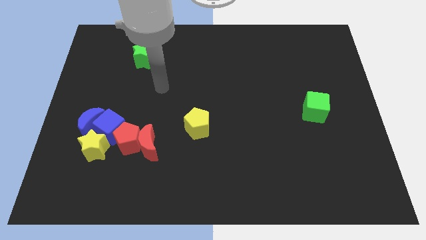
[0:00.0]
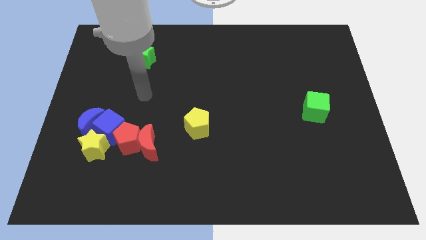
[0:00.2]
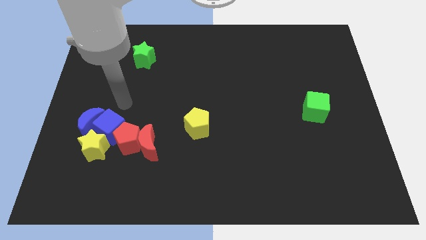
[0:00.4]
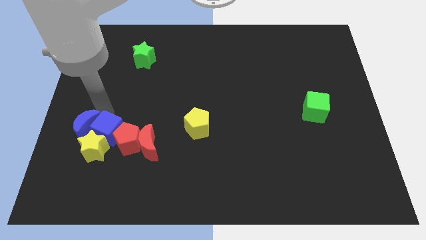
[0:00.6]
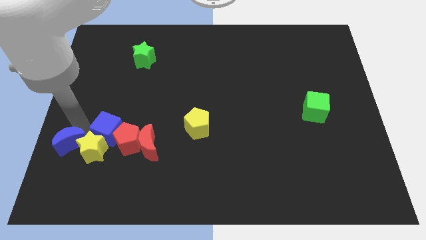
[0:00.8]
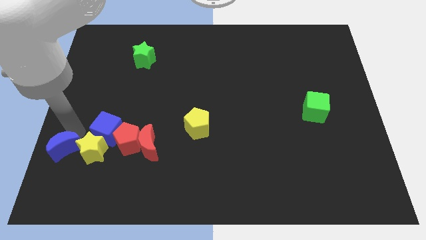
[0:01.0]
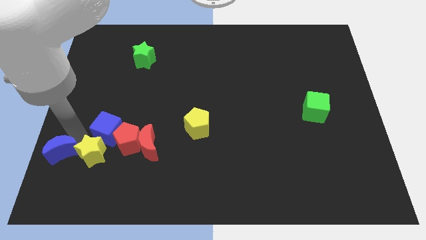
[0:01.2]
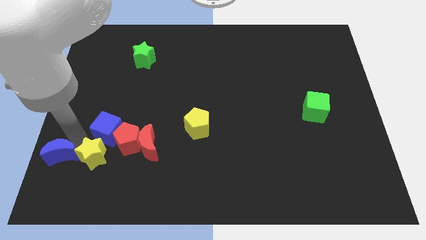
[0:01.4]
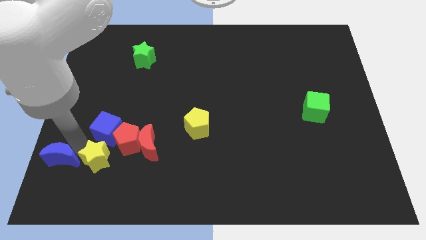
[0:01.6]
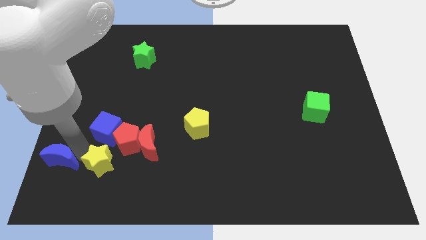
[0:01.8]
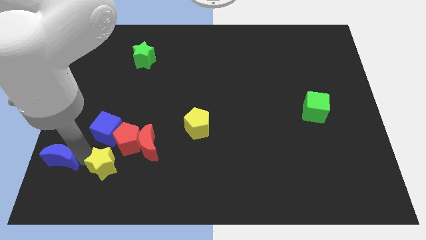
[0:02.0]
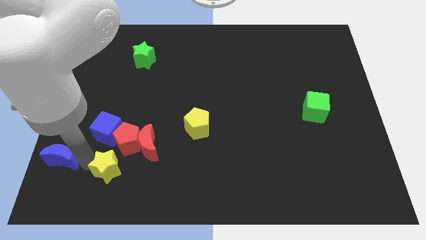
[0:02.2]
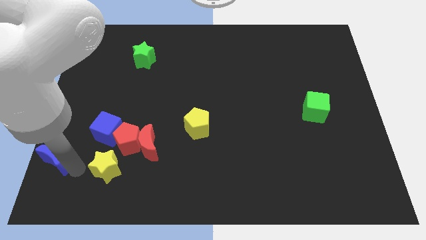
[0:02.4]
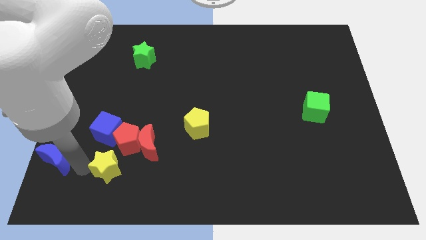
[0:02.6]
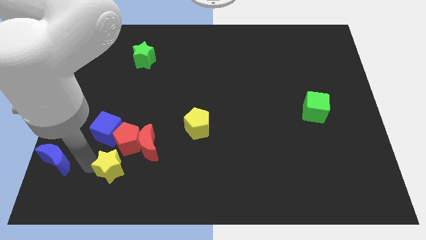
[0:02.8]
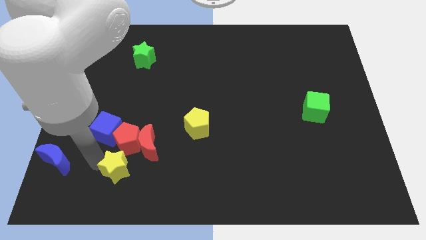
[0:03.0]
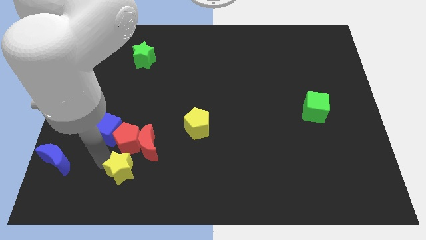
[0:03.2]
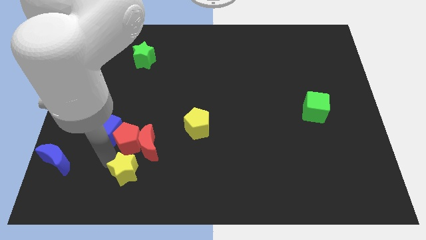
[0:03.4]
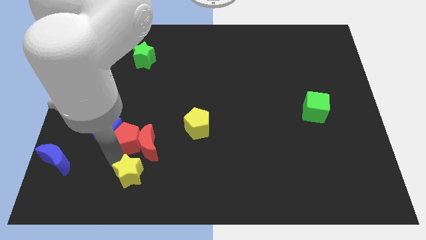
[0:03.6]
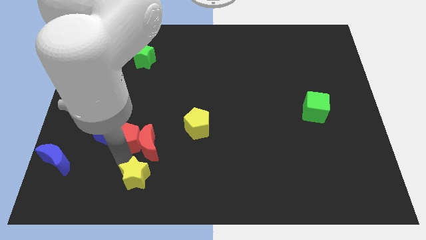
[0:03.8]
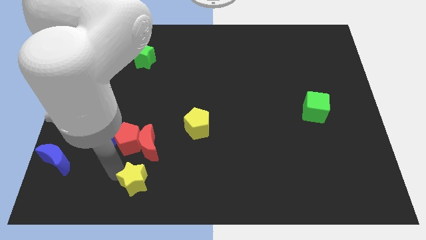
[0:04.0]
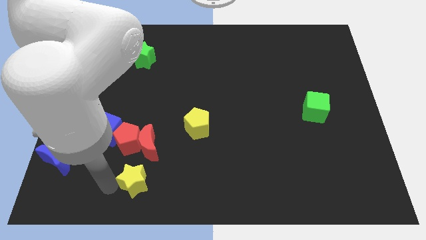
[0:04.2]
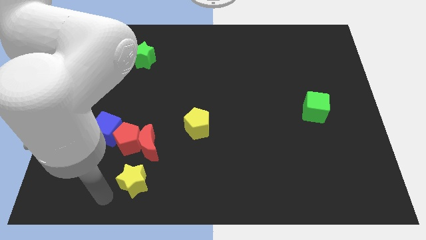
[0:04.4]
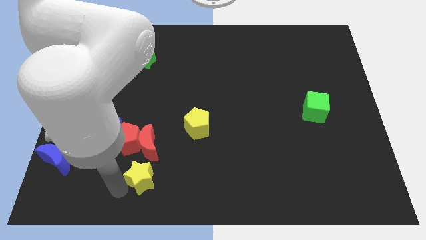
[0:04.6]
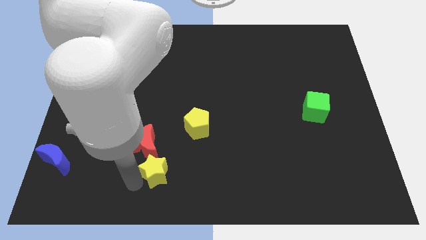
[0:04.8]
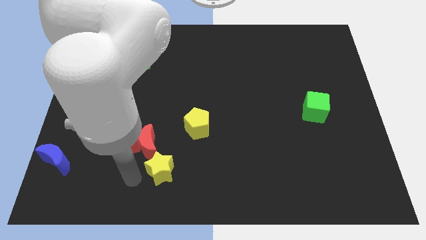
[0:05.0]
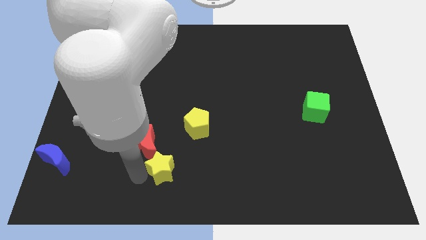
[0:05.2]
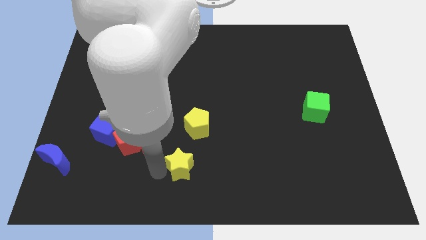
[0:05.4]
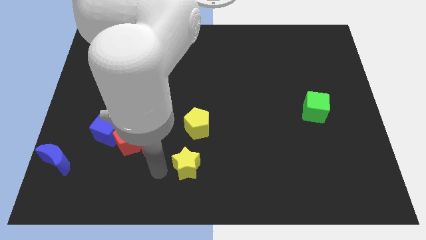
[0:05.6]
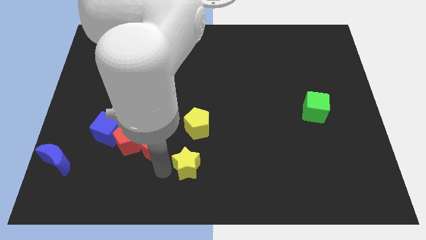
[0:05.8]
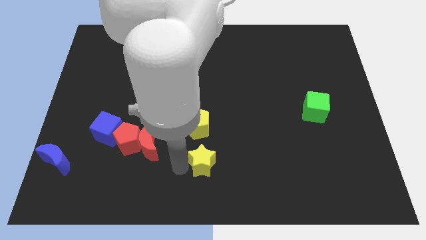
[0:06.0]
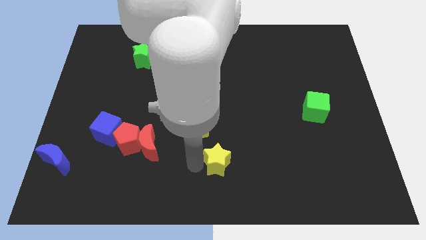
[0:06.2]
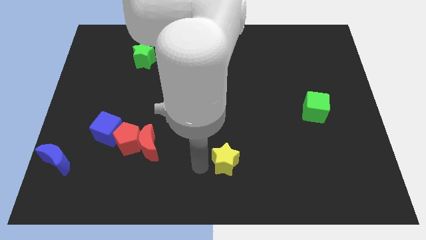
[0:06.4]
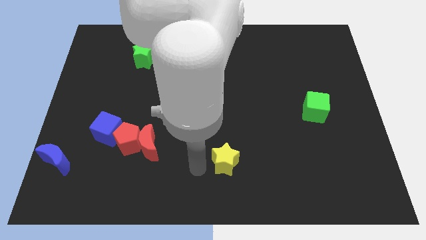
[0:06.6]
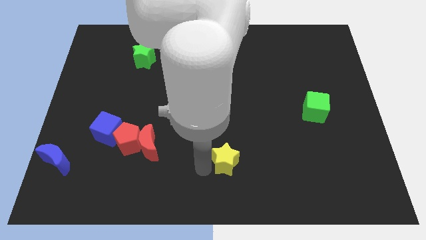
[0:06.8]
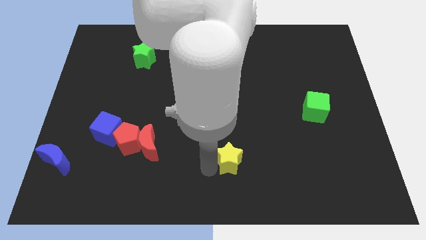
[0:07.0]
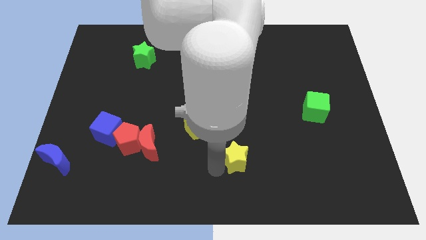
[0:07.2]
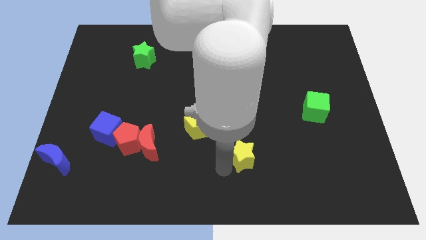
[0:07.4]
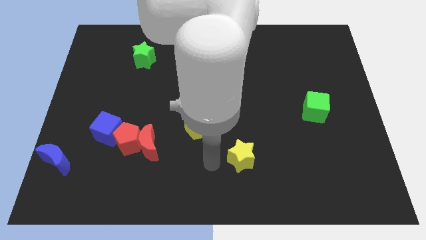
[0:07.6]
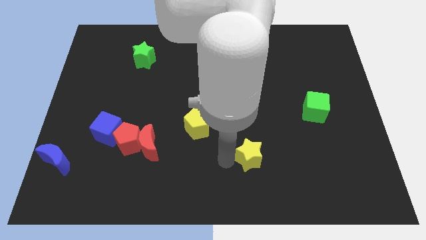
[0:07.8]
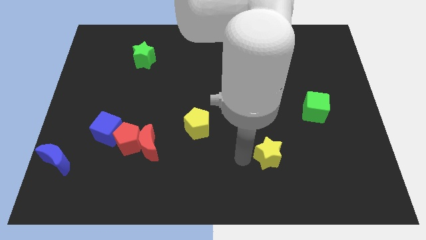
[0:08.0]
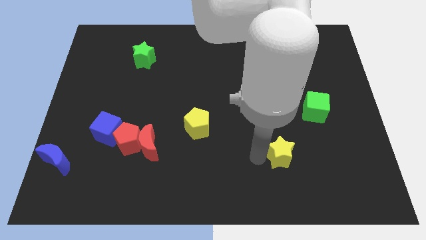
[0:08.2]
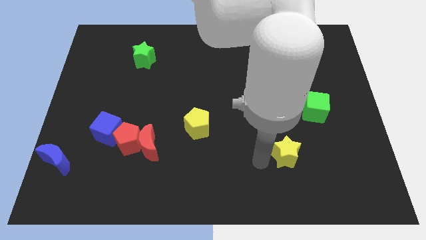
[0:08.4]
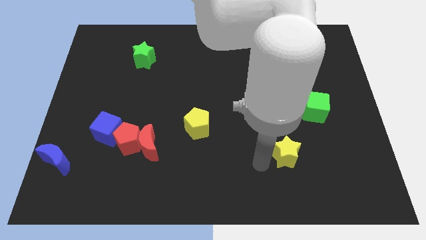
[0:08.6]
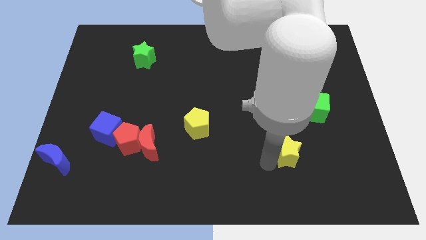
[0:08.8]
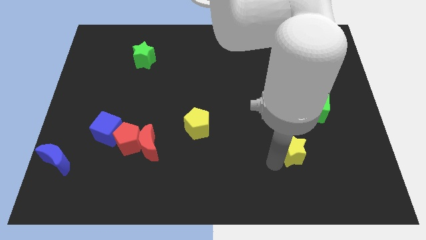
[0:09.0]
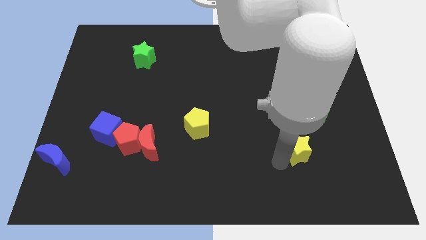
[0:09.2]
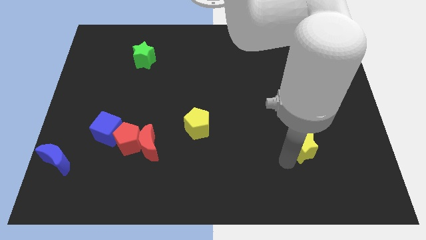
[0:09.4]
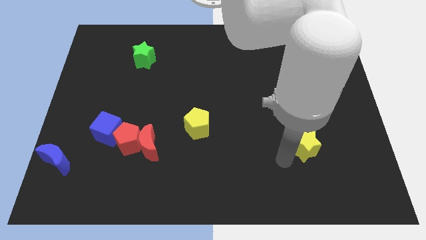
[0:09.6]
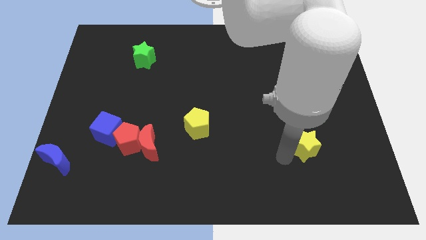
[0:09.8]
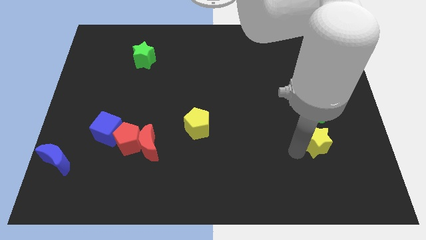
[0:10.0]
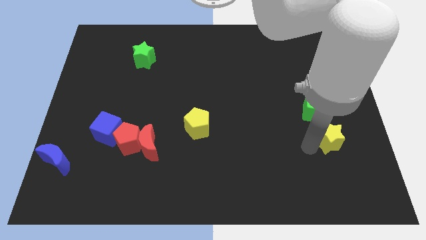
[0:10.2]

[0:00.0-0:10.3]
put the yellow star diagonally down and to the right of the green cube

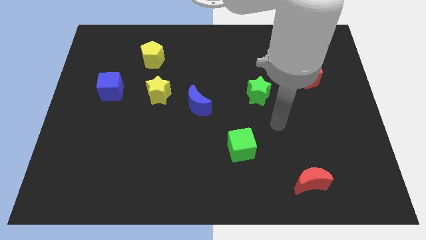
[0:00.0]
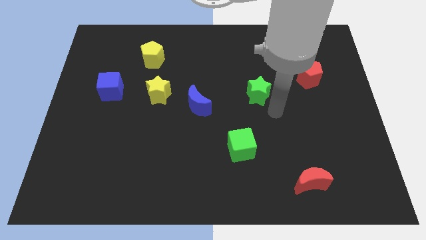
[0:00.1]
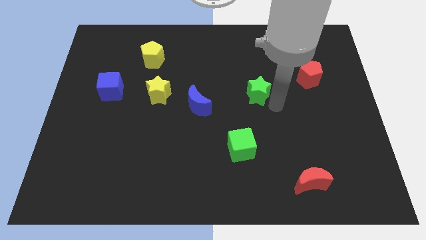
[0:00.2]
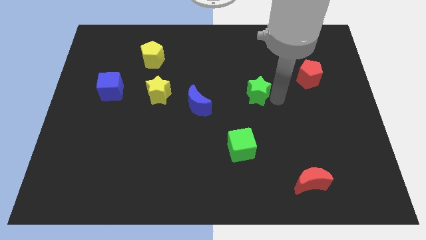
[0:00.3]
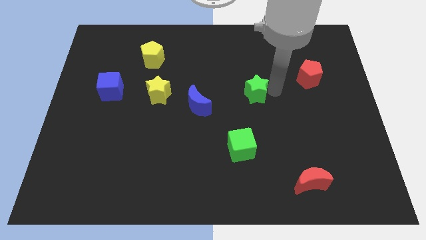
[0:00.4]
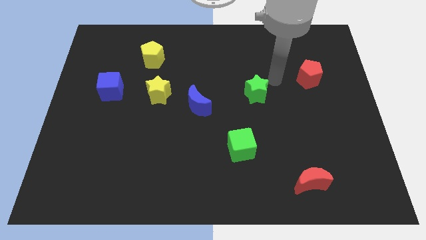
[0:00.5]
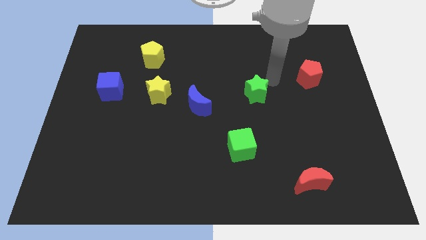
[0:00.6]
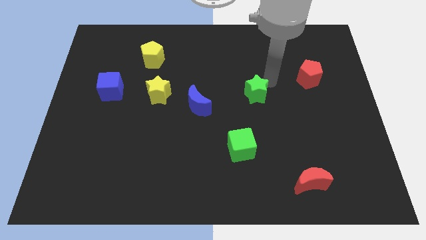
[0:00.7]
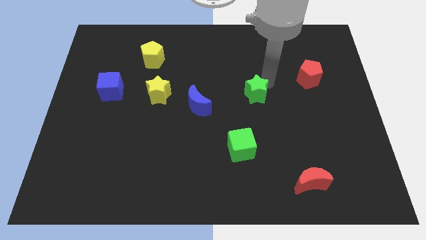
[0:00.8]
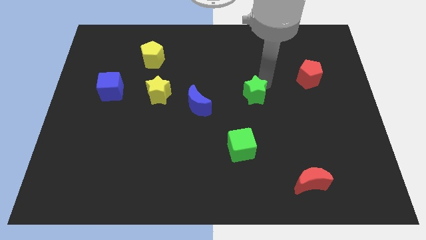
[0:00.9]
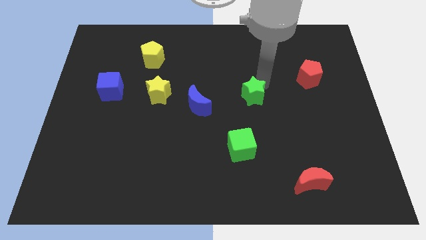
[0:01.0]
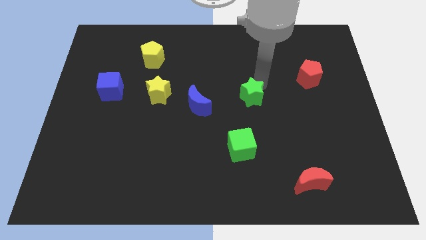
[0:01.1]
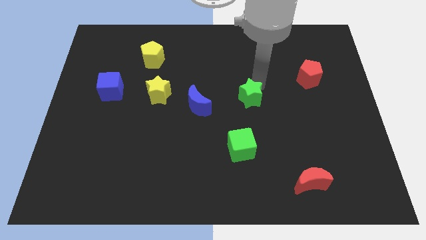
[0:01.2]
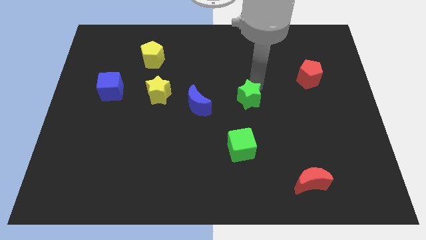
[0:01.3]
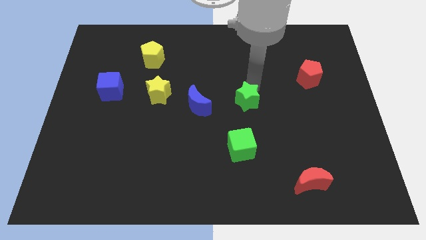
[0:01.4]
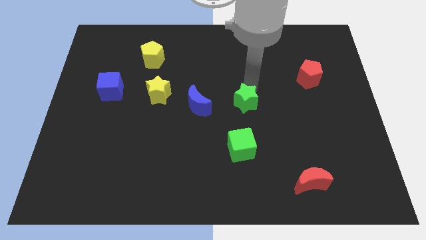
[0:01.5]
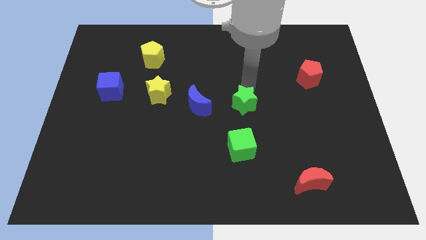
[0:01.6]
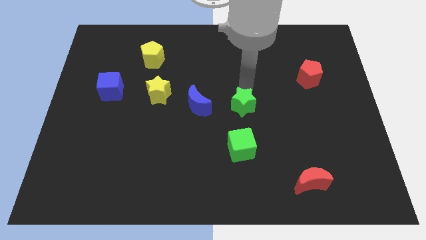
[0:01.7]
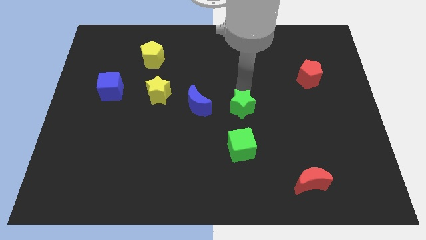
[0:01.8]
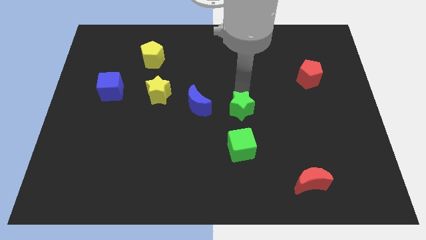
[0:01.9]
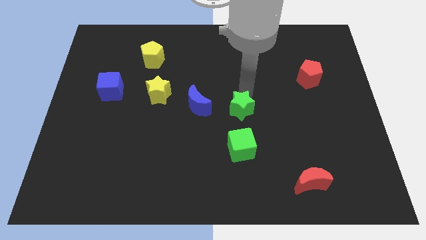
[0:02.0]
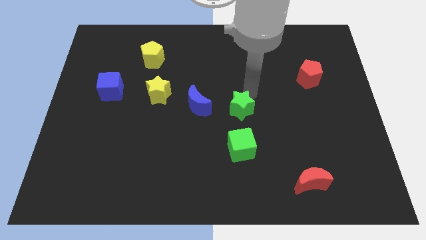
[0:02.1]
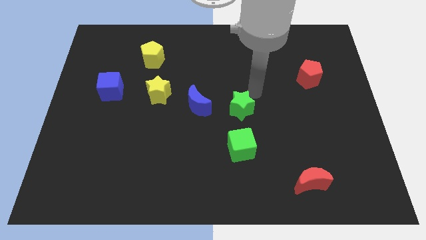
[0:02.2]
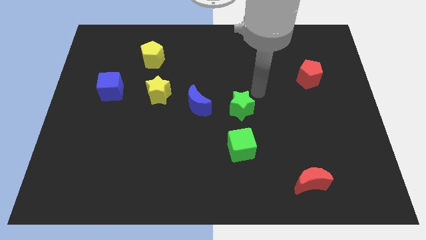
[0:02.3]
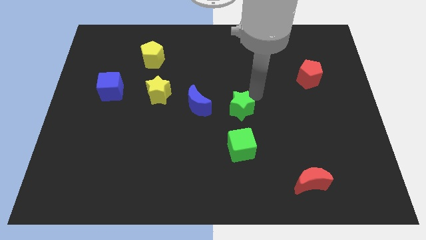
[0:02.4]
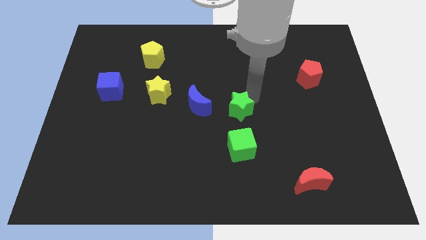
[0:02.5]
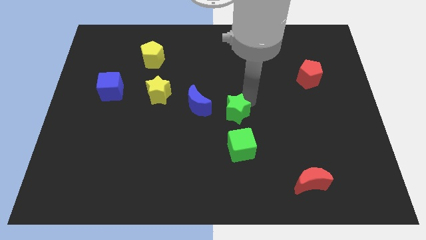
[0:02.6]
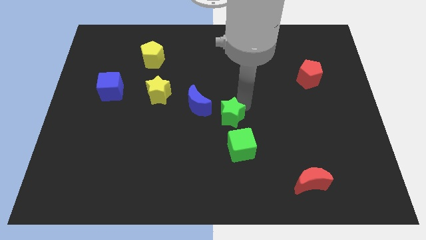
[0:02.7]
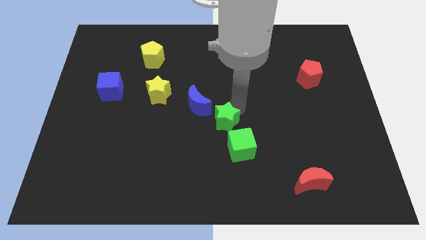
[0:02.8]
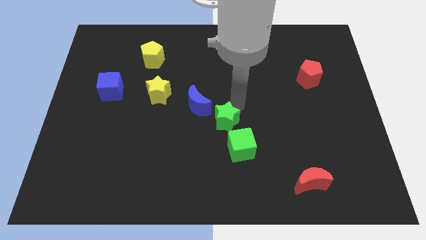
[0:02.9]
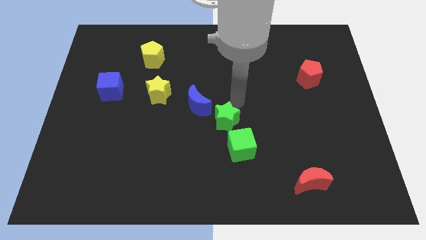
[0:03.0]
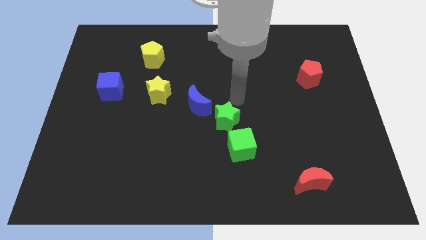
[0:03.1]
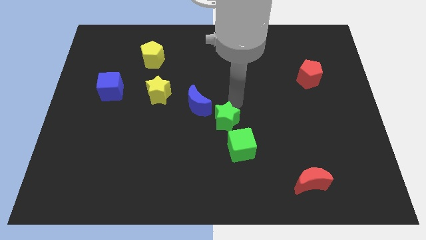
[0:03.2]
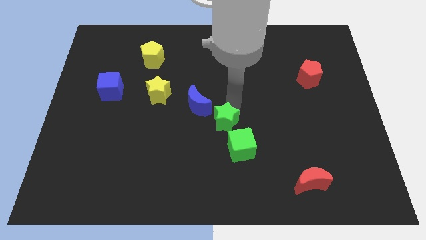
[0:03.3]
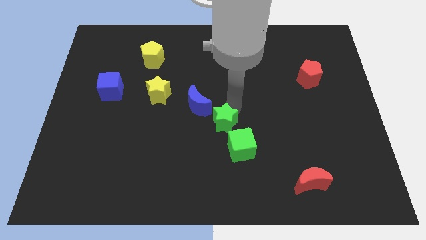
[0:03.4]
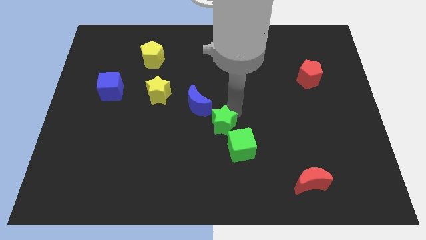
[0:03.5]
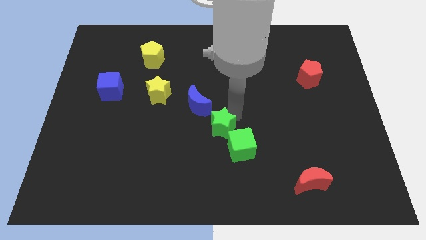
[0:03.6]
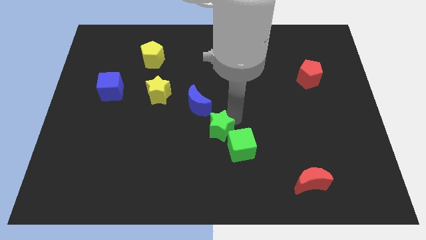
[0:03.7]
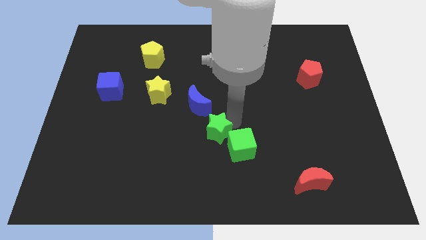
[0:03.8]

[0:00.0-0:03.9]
put the green star left of the green cube
